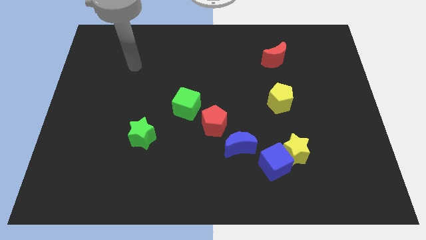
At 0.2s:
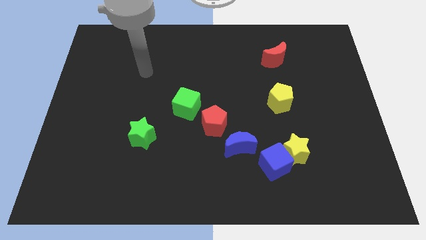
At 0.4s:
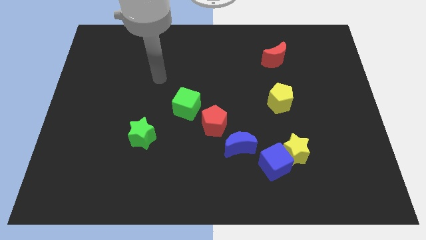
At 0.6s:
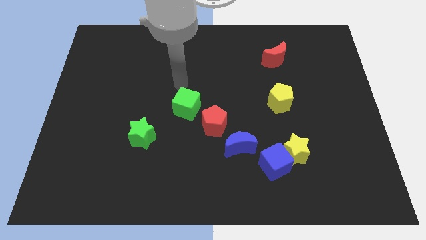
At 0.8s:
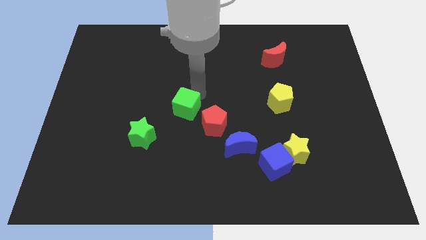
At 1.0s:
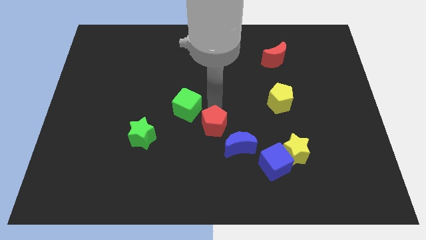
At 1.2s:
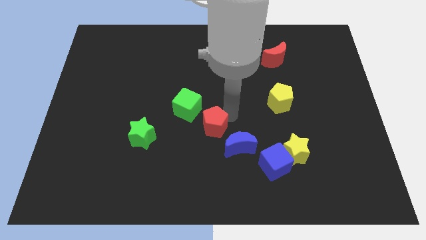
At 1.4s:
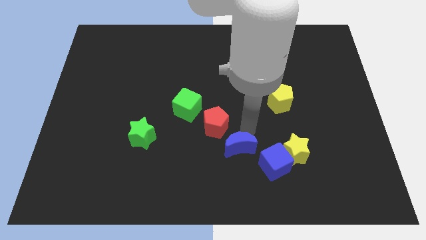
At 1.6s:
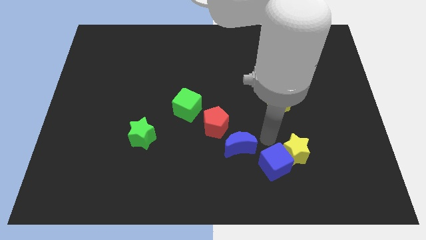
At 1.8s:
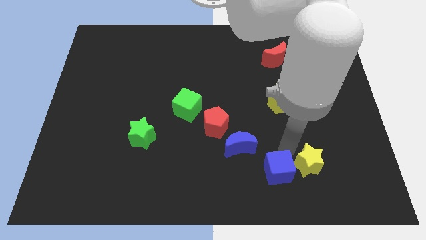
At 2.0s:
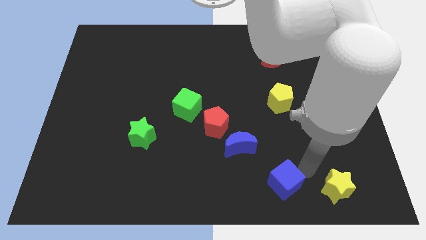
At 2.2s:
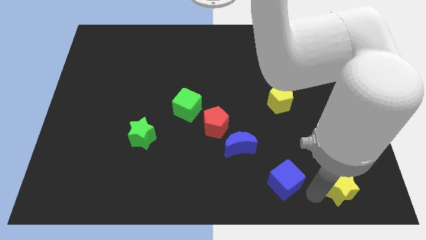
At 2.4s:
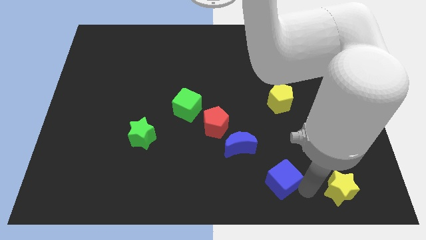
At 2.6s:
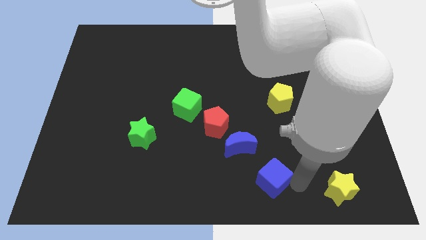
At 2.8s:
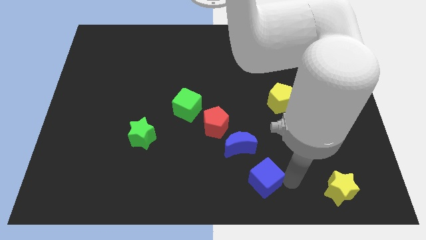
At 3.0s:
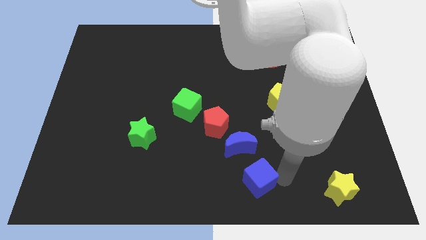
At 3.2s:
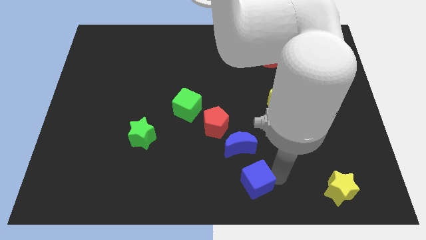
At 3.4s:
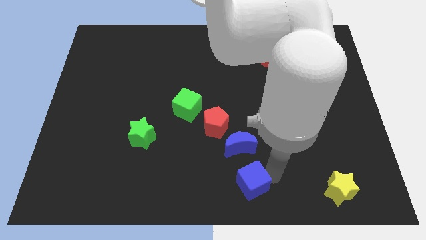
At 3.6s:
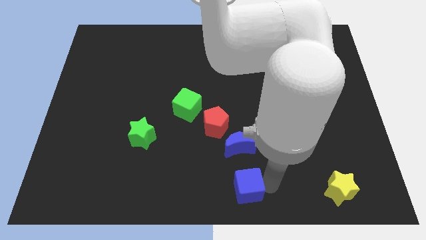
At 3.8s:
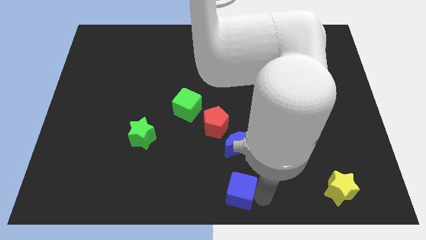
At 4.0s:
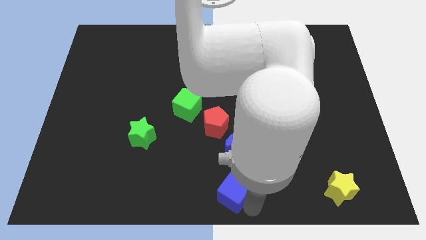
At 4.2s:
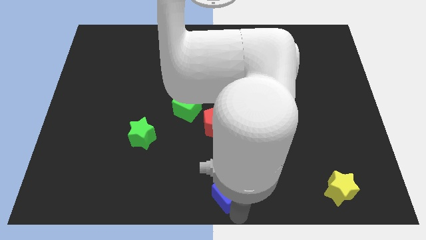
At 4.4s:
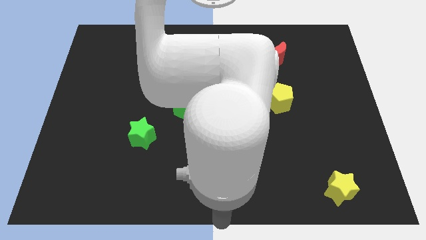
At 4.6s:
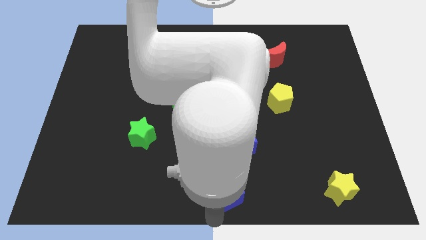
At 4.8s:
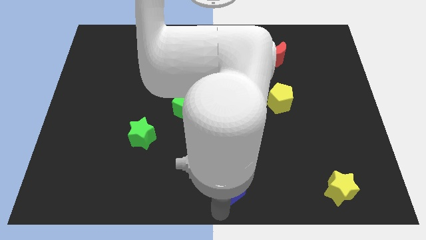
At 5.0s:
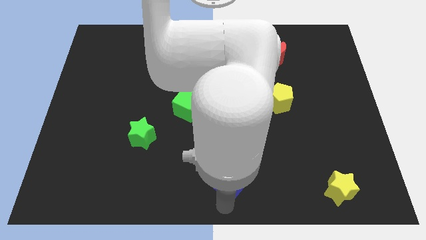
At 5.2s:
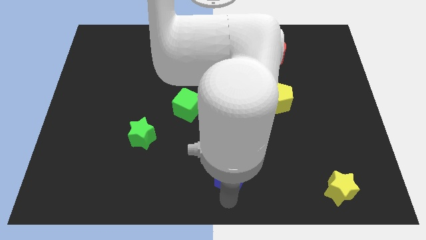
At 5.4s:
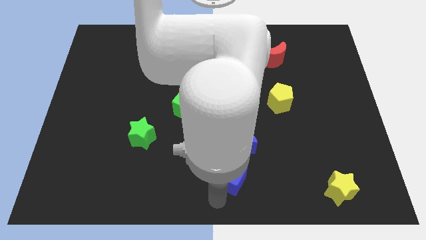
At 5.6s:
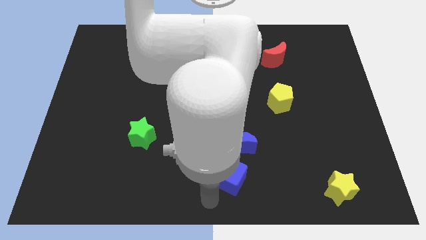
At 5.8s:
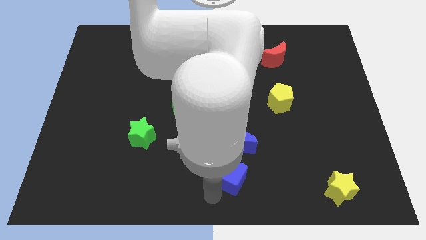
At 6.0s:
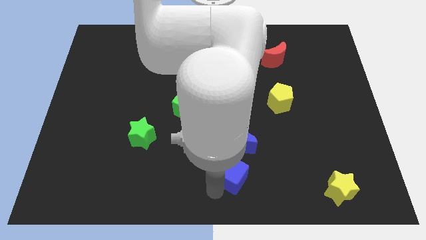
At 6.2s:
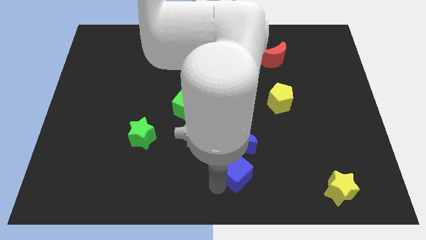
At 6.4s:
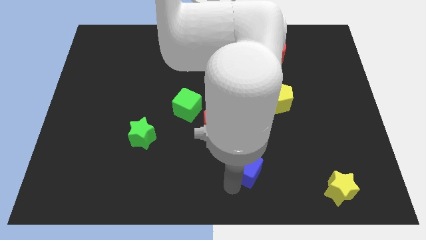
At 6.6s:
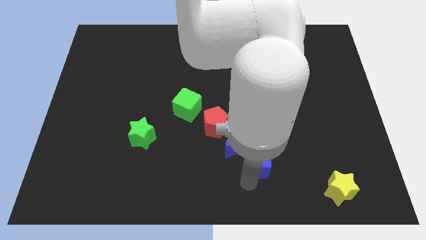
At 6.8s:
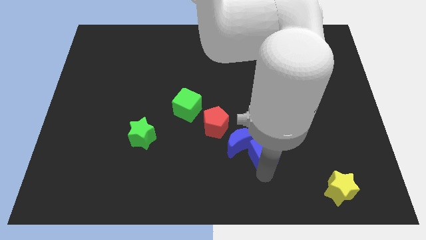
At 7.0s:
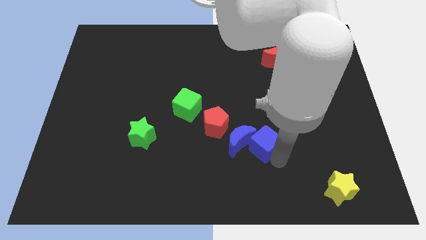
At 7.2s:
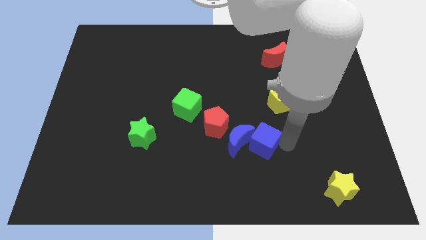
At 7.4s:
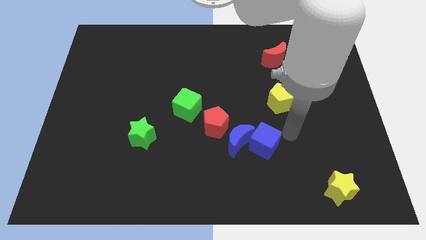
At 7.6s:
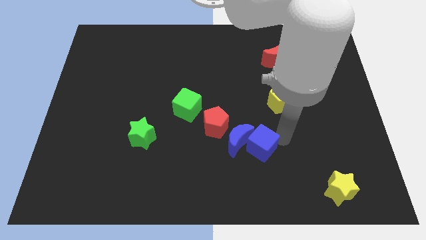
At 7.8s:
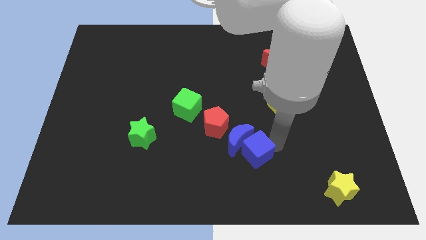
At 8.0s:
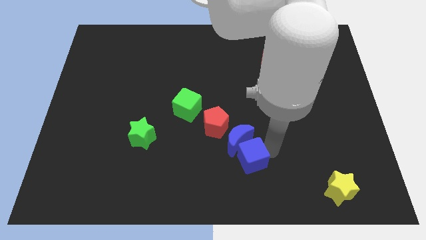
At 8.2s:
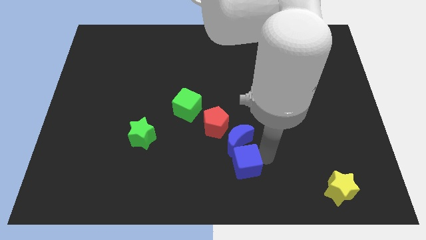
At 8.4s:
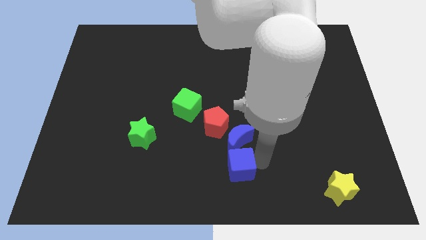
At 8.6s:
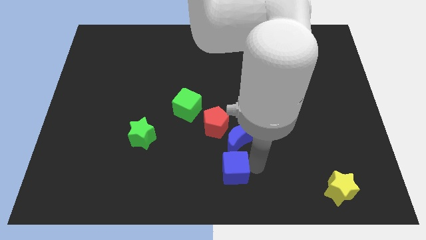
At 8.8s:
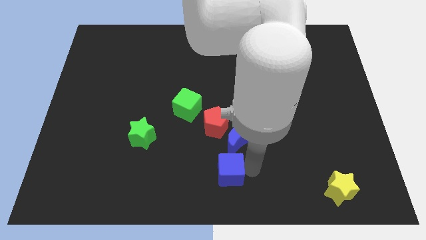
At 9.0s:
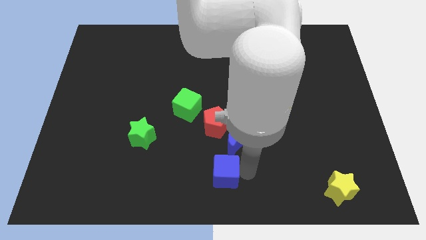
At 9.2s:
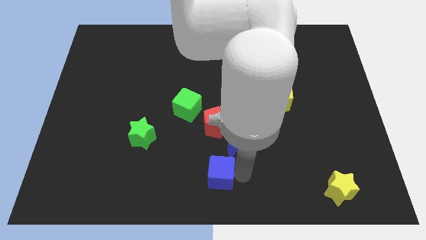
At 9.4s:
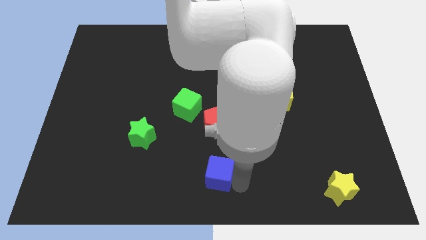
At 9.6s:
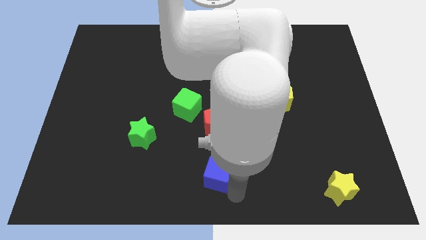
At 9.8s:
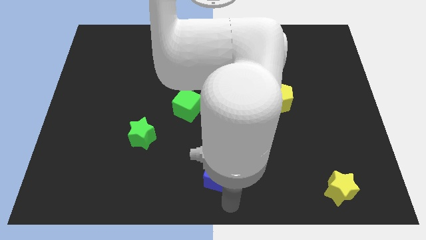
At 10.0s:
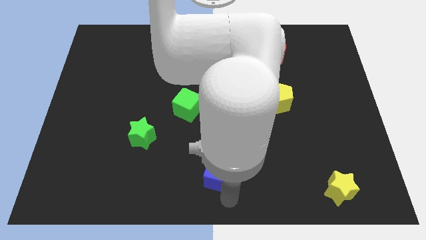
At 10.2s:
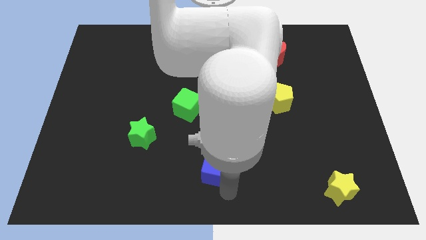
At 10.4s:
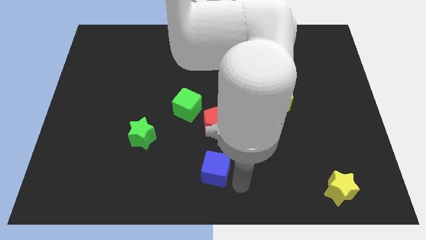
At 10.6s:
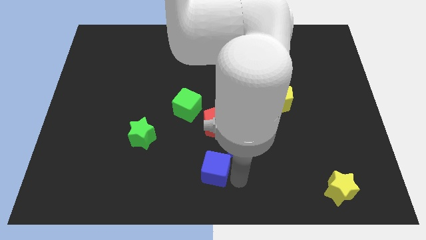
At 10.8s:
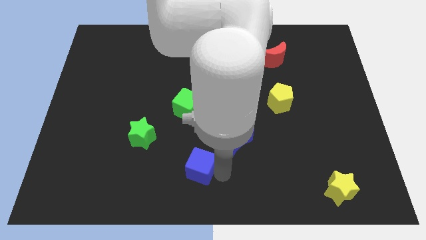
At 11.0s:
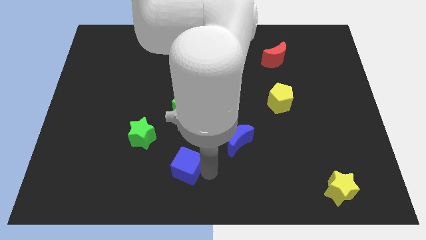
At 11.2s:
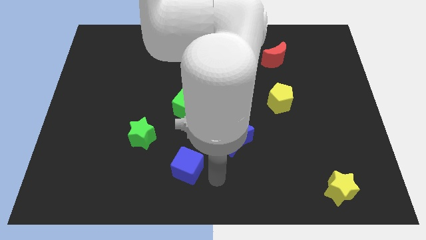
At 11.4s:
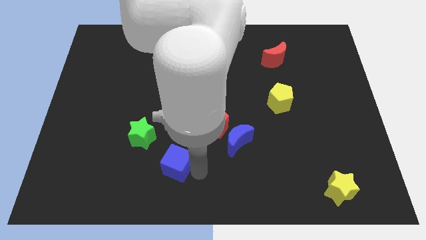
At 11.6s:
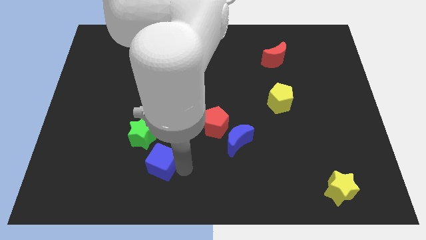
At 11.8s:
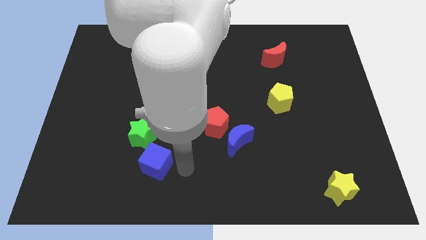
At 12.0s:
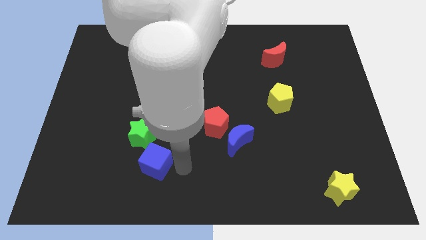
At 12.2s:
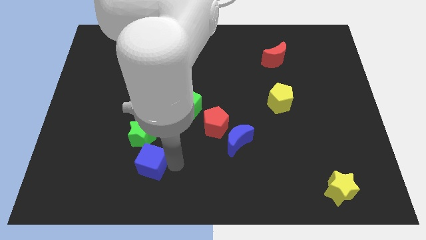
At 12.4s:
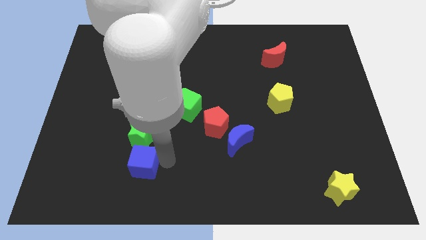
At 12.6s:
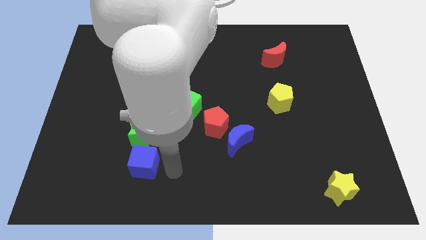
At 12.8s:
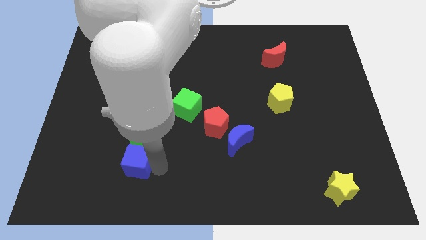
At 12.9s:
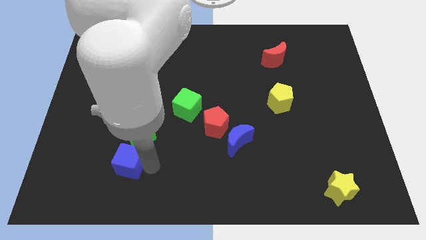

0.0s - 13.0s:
push the blue cube diagonally down and to the left of the green star

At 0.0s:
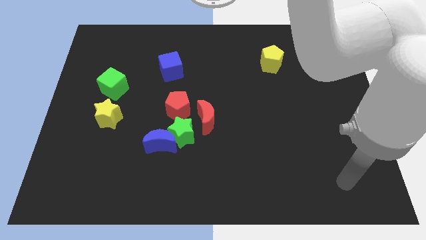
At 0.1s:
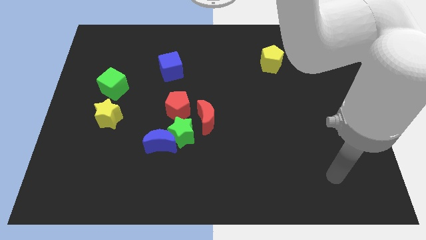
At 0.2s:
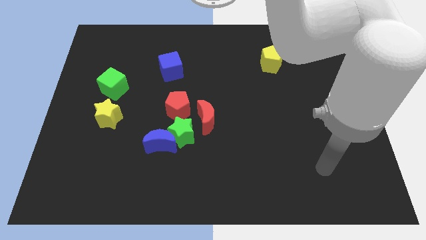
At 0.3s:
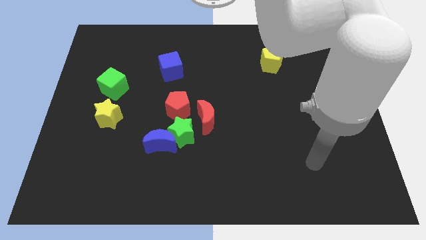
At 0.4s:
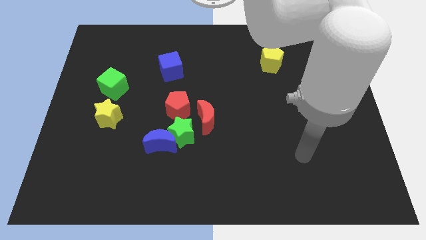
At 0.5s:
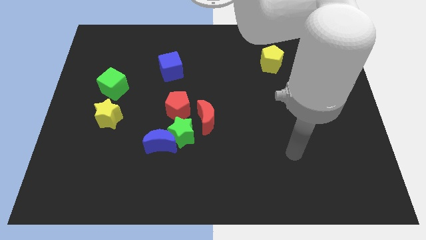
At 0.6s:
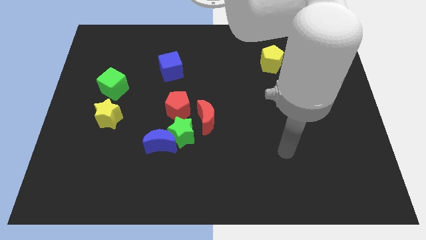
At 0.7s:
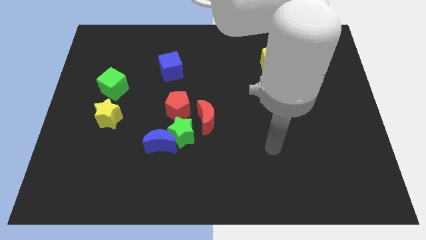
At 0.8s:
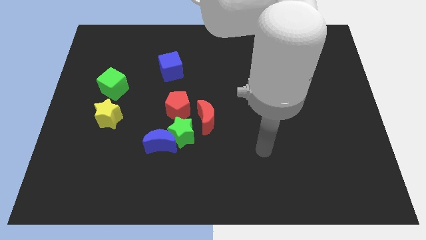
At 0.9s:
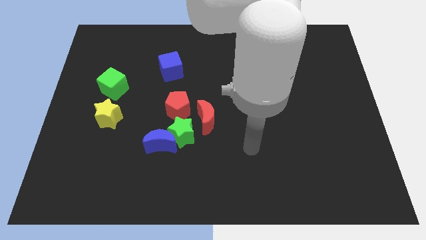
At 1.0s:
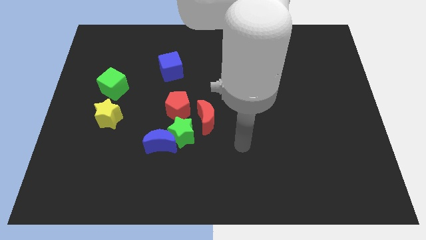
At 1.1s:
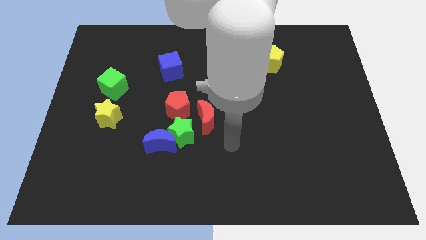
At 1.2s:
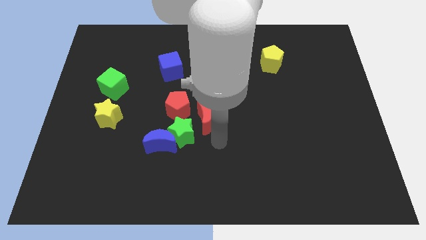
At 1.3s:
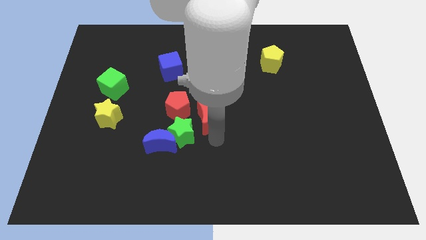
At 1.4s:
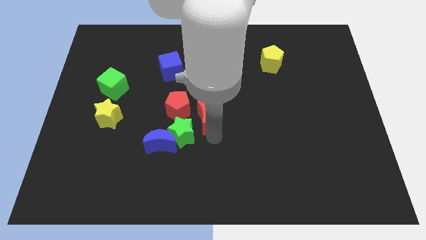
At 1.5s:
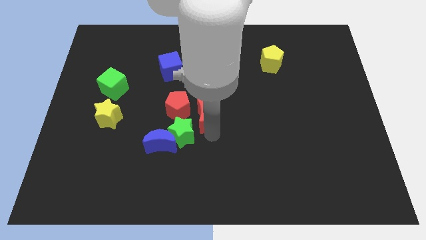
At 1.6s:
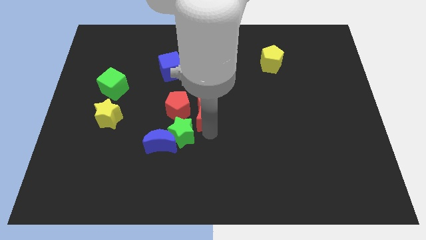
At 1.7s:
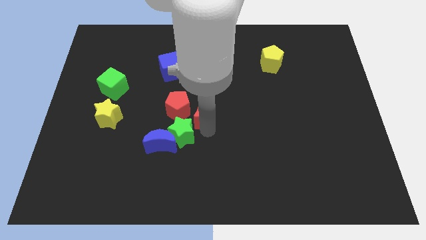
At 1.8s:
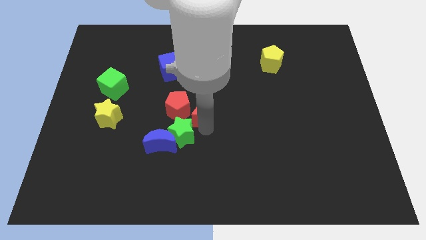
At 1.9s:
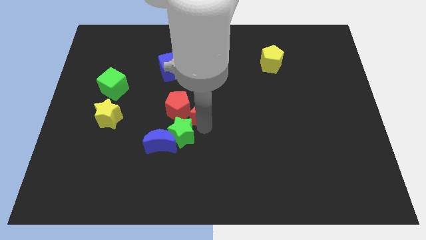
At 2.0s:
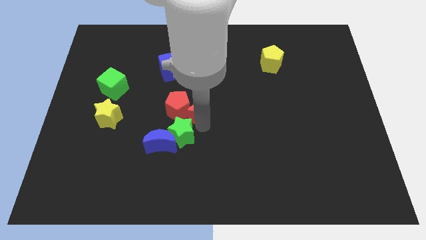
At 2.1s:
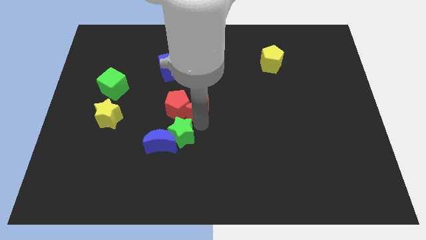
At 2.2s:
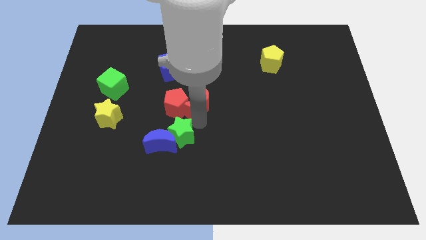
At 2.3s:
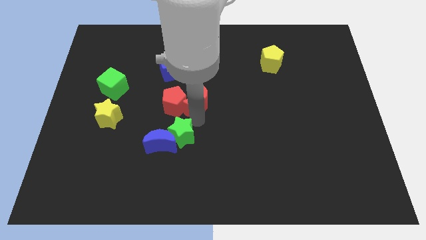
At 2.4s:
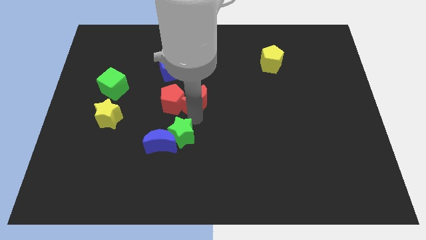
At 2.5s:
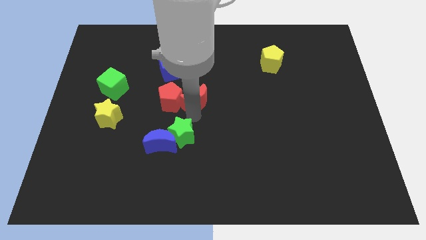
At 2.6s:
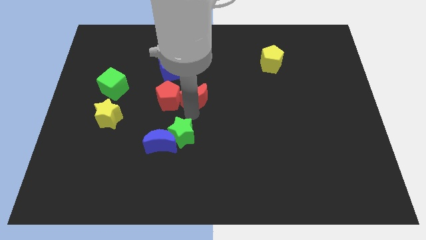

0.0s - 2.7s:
slide the red moon diagonally down and to the right of the blue cube
